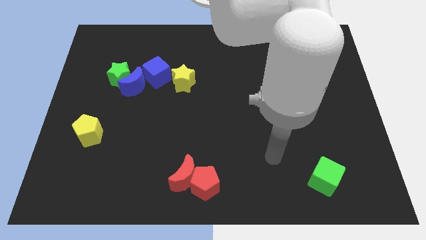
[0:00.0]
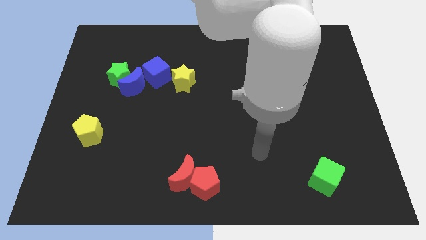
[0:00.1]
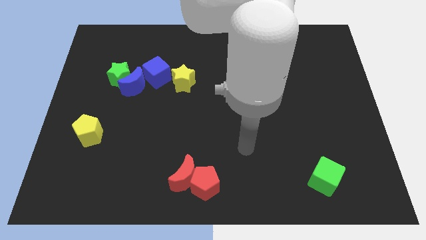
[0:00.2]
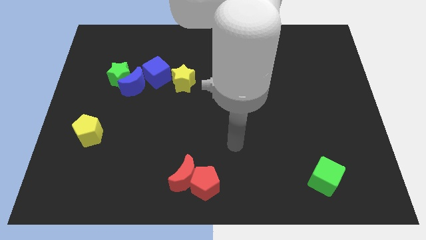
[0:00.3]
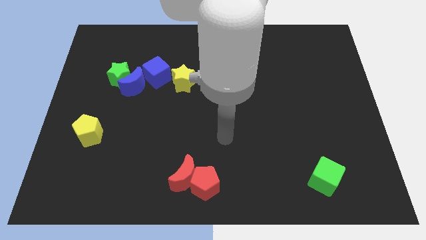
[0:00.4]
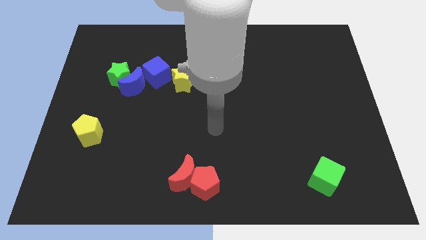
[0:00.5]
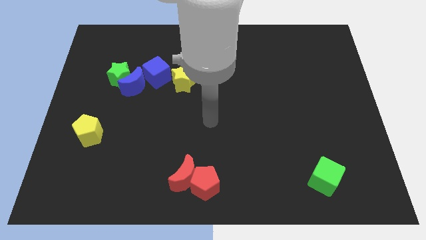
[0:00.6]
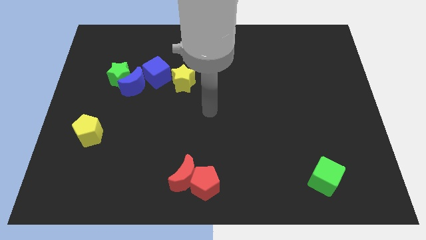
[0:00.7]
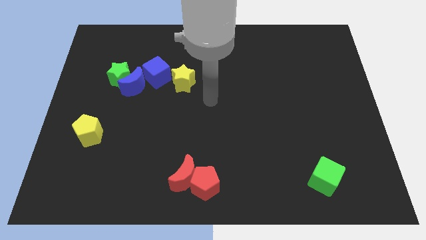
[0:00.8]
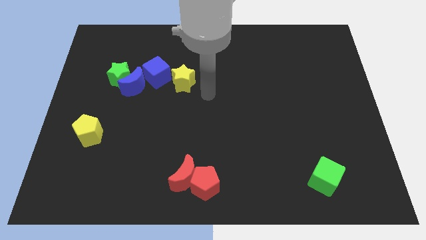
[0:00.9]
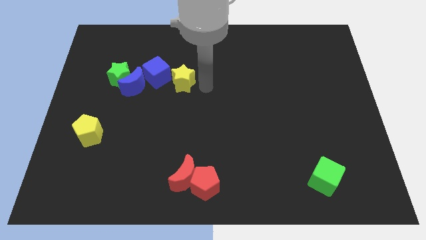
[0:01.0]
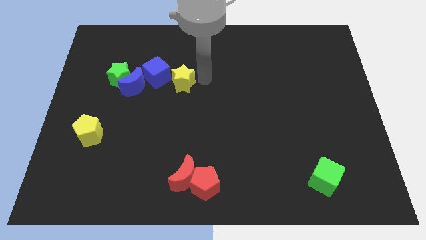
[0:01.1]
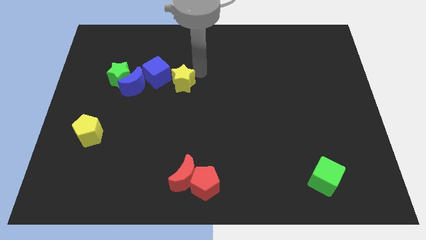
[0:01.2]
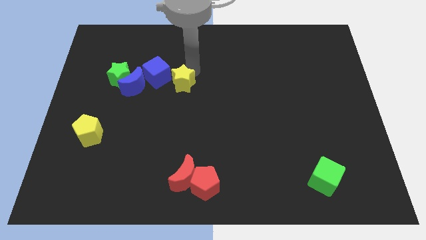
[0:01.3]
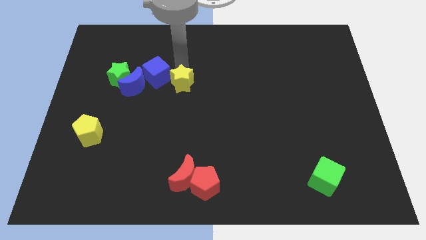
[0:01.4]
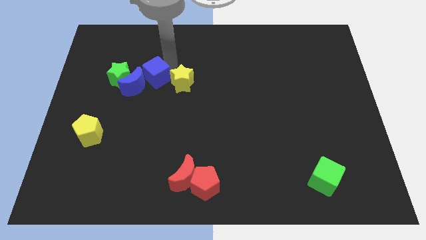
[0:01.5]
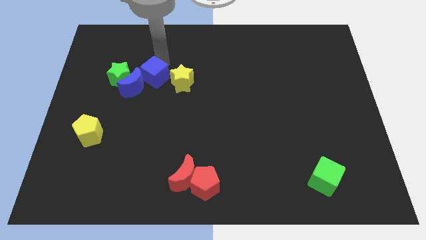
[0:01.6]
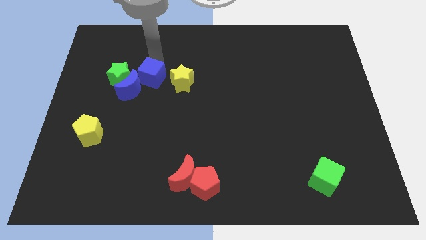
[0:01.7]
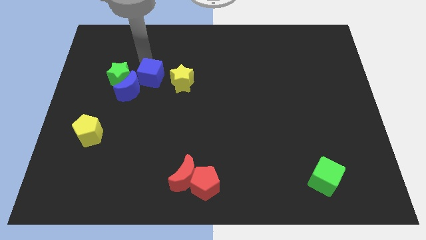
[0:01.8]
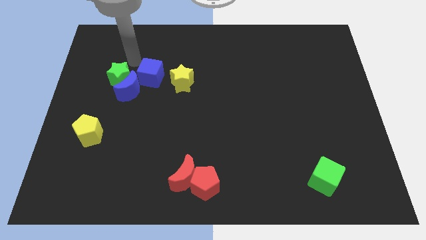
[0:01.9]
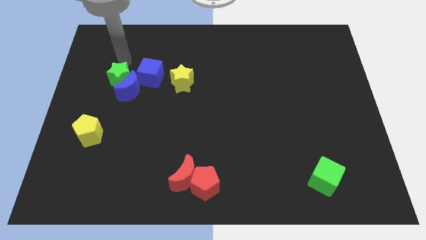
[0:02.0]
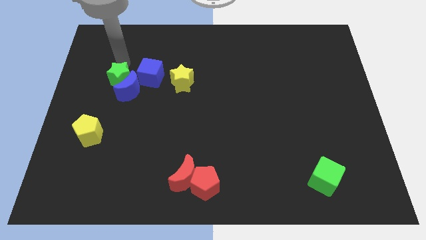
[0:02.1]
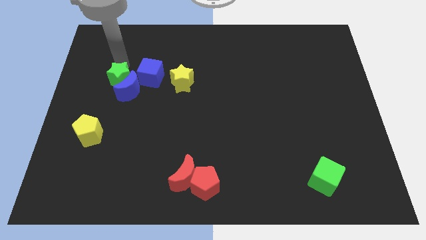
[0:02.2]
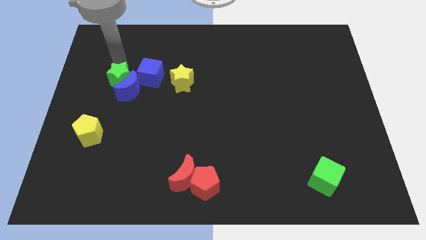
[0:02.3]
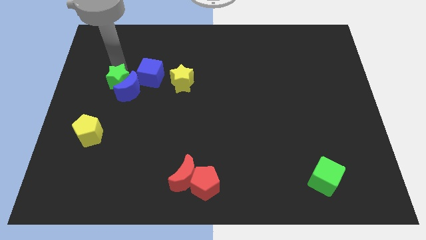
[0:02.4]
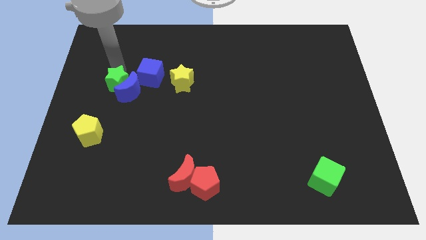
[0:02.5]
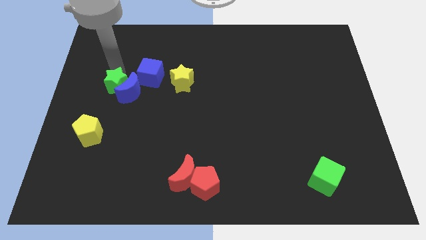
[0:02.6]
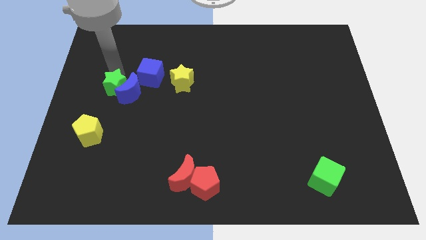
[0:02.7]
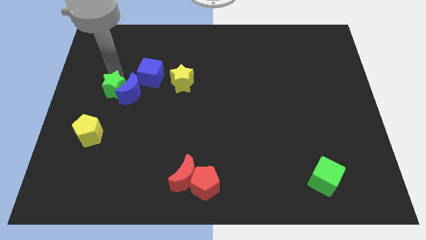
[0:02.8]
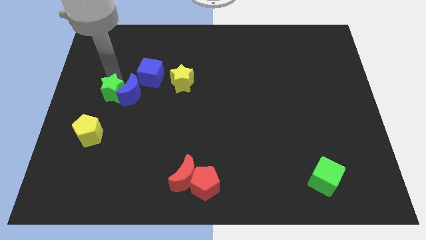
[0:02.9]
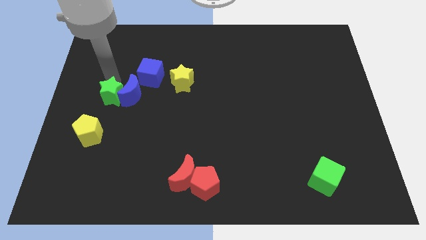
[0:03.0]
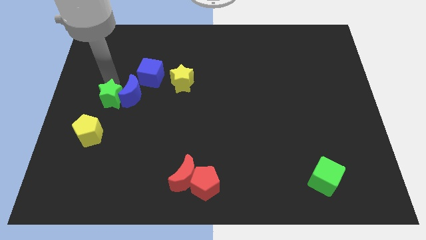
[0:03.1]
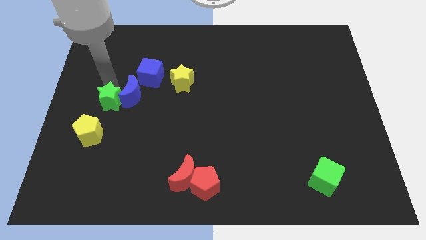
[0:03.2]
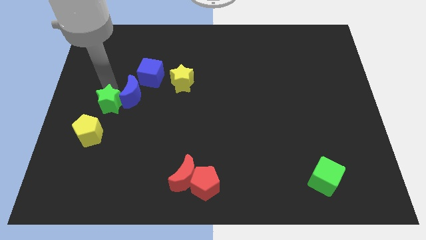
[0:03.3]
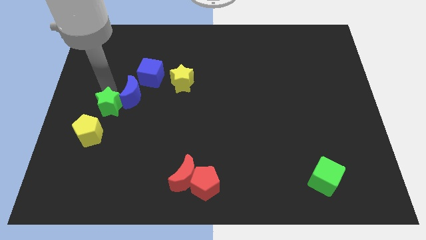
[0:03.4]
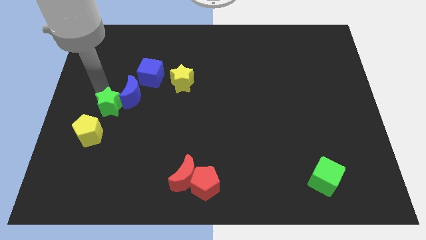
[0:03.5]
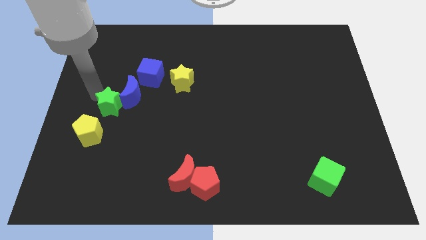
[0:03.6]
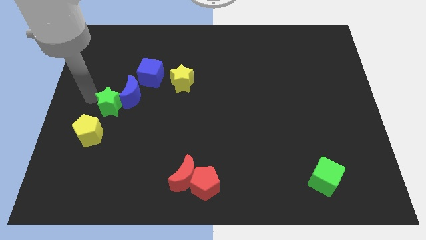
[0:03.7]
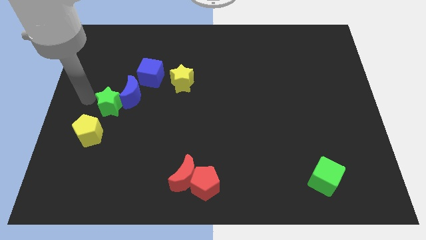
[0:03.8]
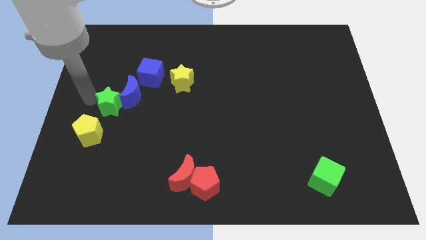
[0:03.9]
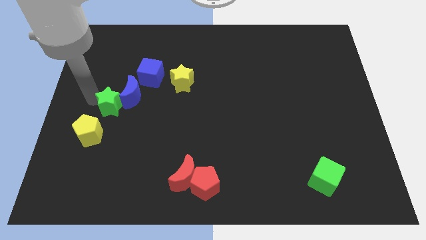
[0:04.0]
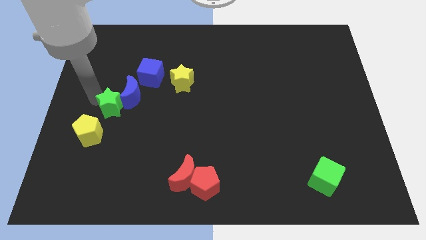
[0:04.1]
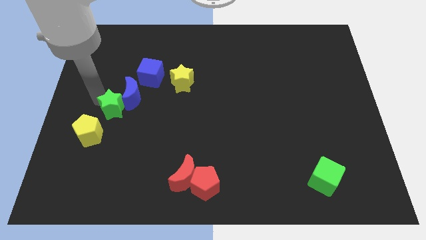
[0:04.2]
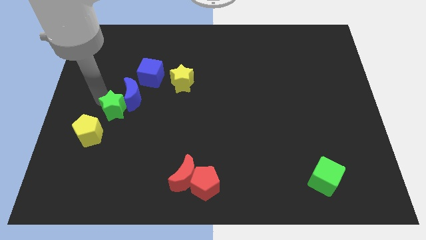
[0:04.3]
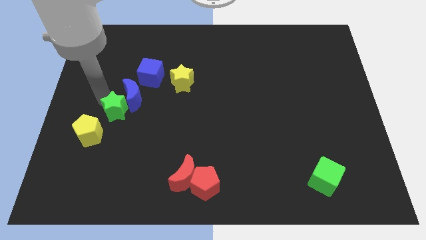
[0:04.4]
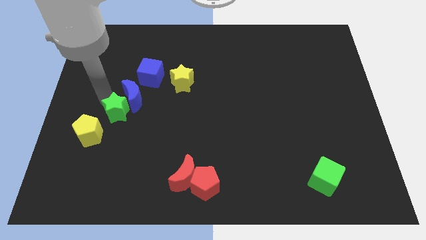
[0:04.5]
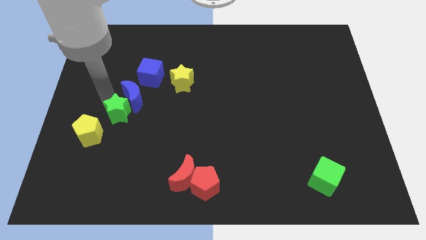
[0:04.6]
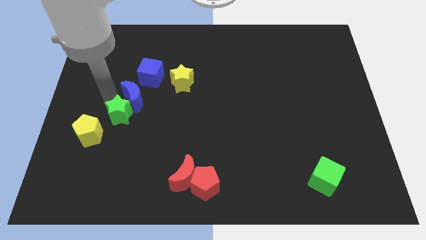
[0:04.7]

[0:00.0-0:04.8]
move the green star downwards and to the right diagonally a little

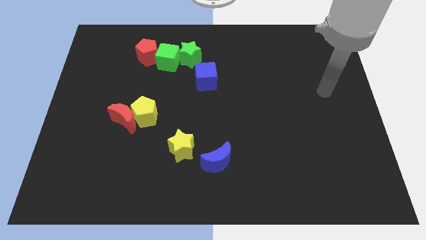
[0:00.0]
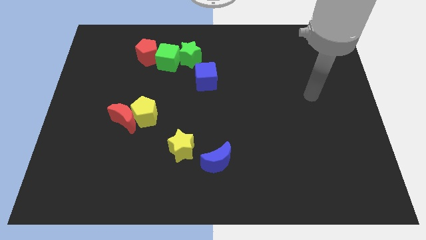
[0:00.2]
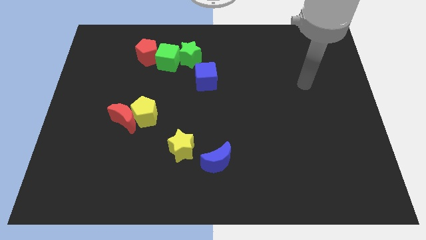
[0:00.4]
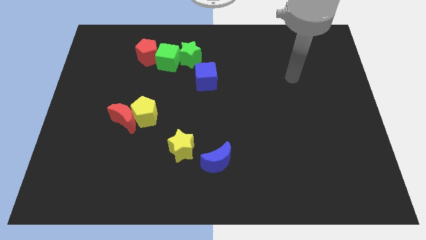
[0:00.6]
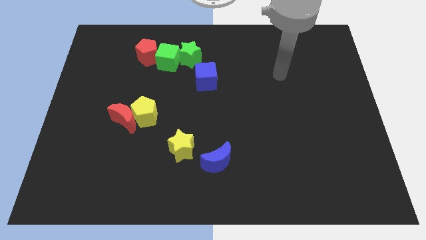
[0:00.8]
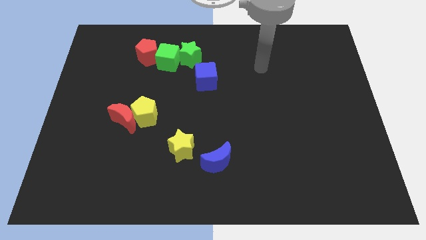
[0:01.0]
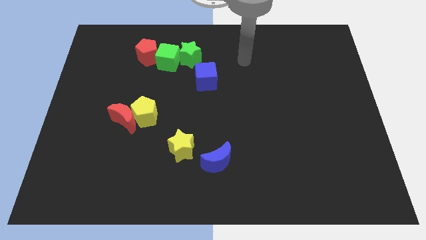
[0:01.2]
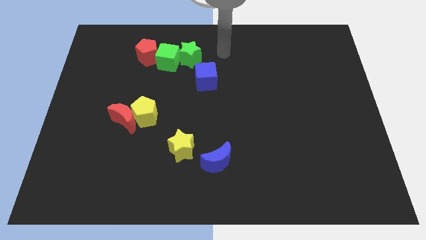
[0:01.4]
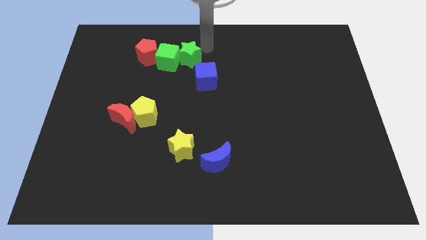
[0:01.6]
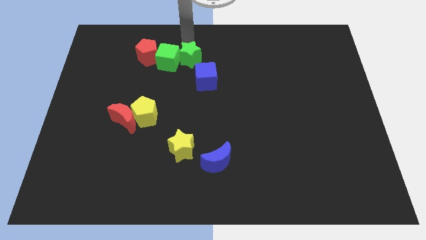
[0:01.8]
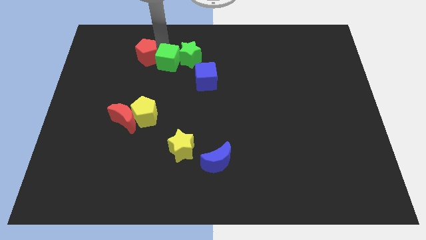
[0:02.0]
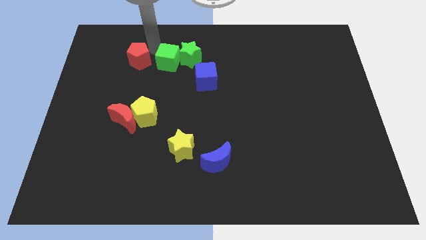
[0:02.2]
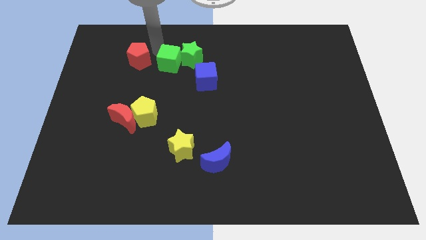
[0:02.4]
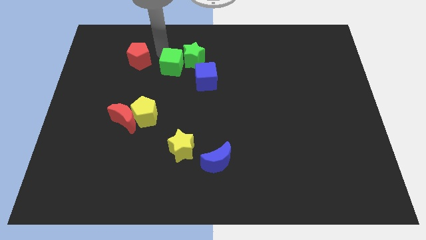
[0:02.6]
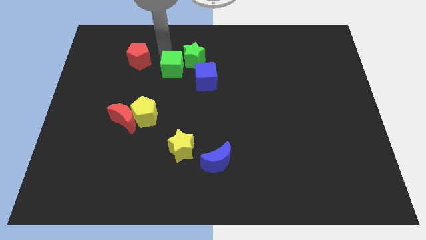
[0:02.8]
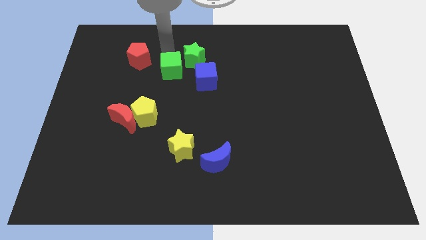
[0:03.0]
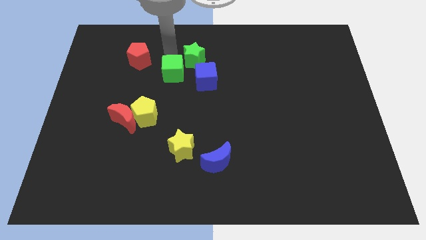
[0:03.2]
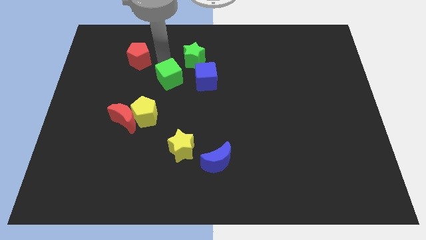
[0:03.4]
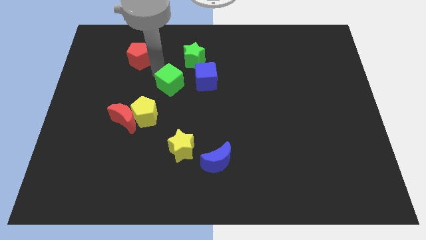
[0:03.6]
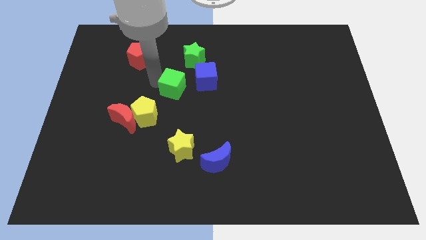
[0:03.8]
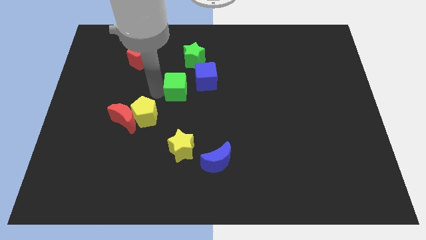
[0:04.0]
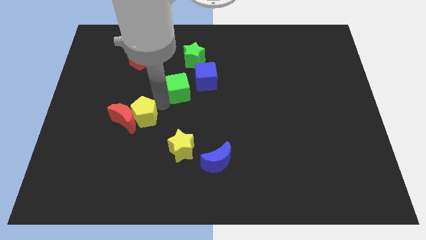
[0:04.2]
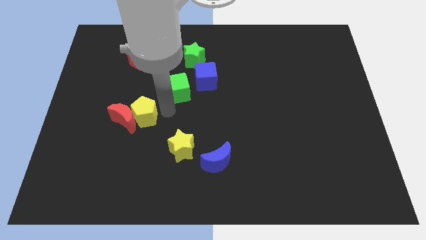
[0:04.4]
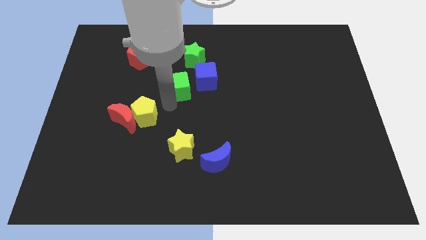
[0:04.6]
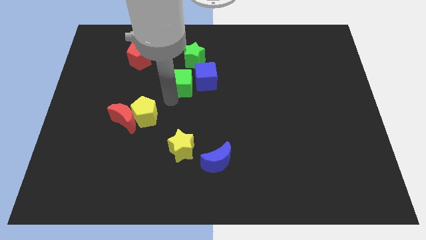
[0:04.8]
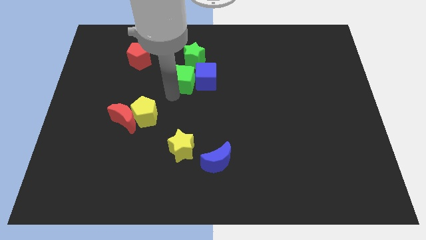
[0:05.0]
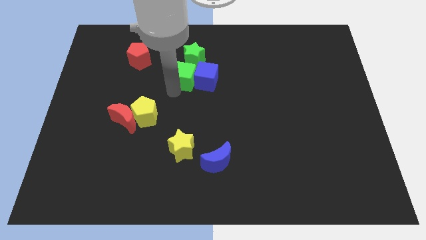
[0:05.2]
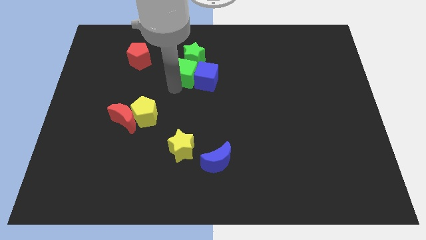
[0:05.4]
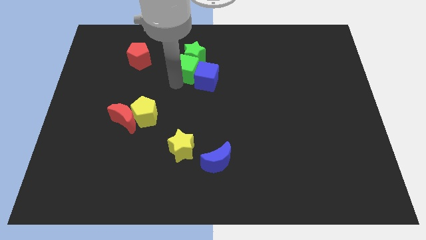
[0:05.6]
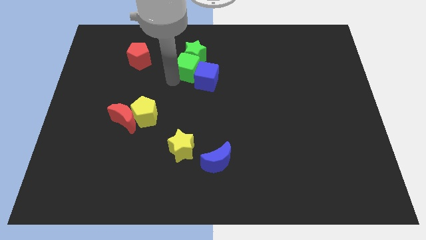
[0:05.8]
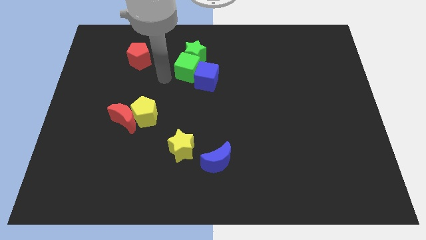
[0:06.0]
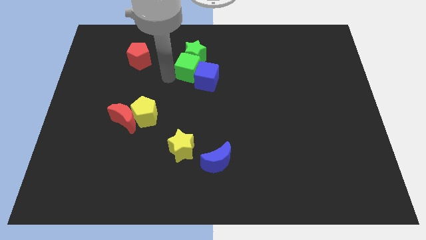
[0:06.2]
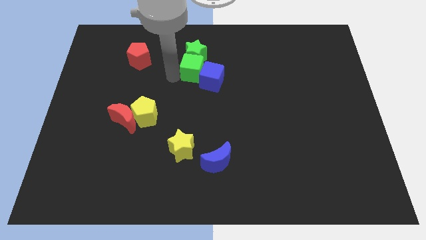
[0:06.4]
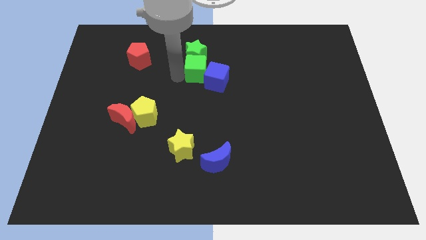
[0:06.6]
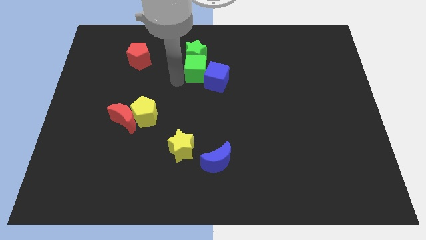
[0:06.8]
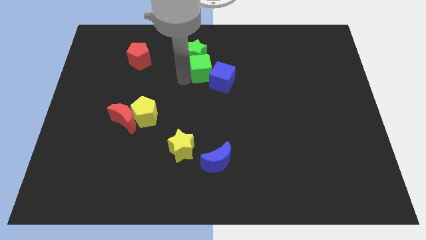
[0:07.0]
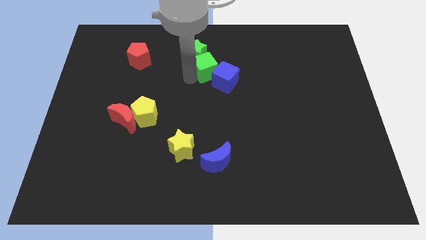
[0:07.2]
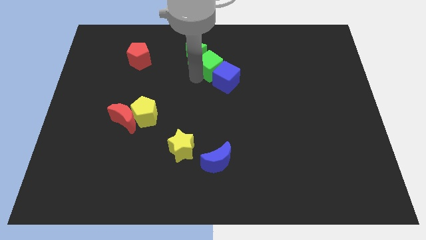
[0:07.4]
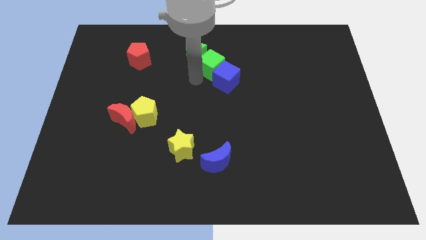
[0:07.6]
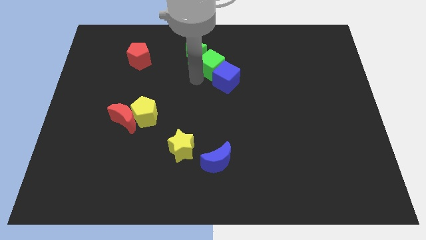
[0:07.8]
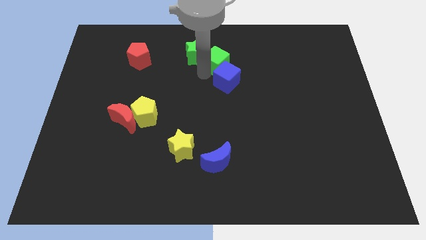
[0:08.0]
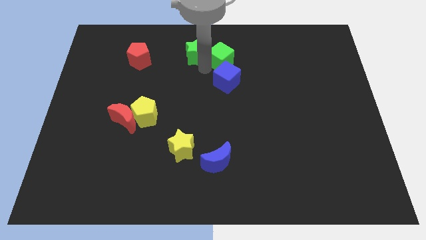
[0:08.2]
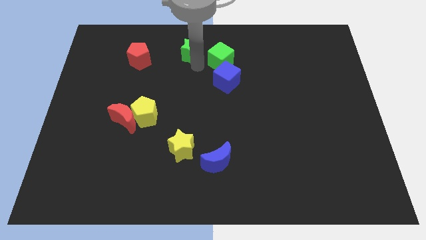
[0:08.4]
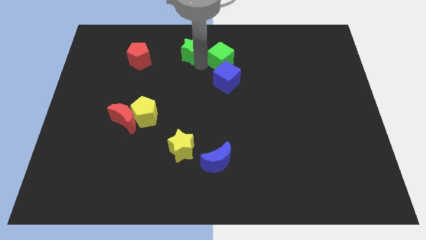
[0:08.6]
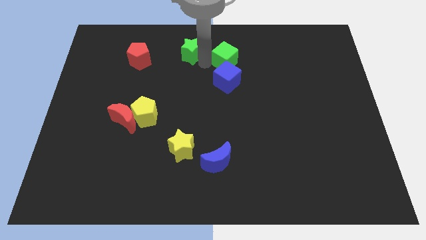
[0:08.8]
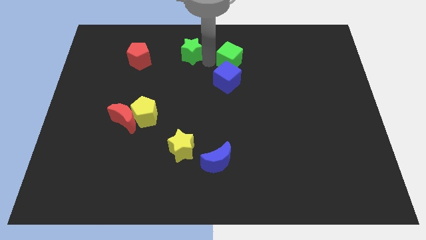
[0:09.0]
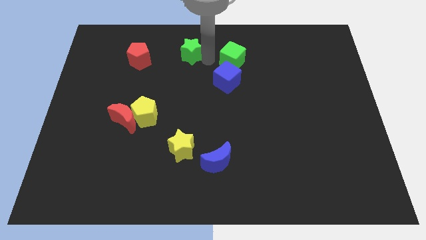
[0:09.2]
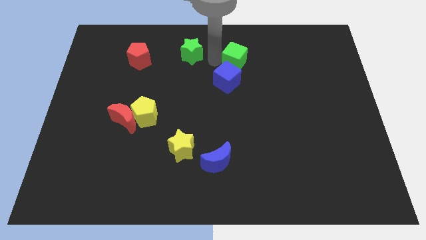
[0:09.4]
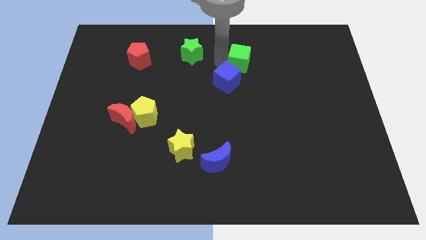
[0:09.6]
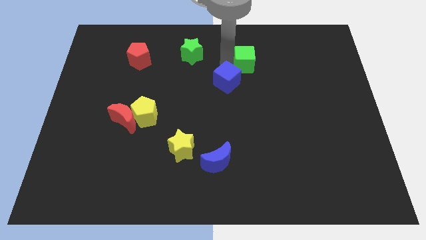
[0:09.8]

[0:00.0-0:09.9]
move the green cube right
